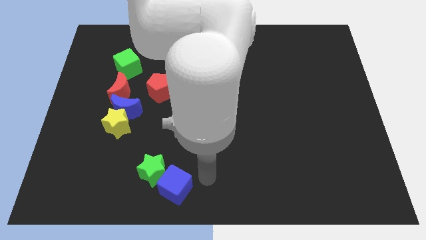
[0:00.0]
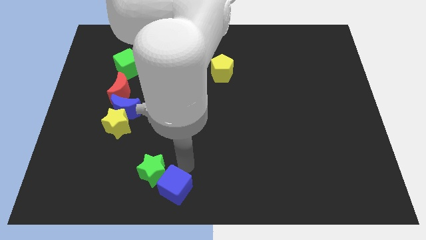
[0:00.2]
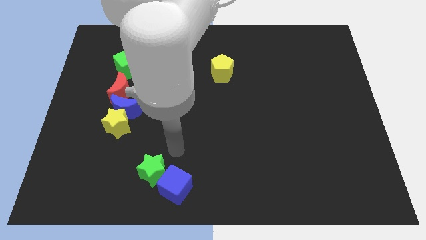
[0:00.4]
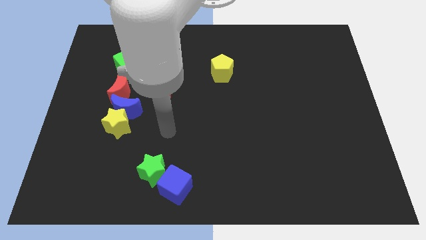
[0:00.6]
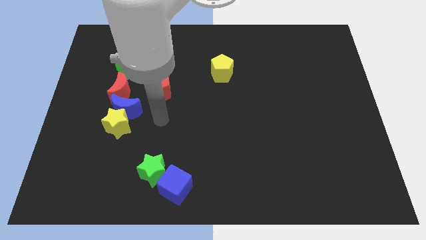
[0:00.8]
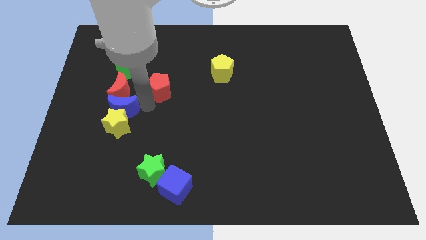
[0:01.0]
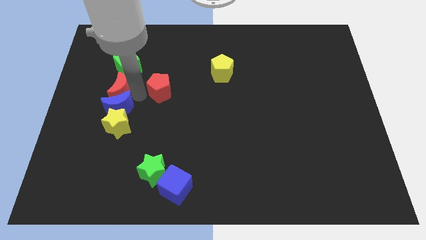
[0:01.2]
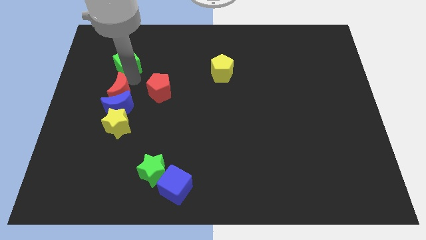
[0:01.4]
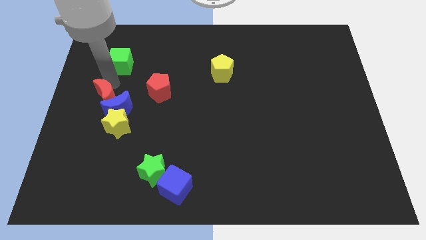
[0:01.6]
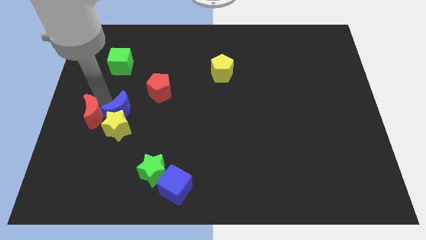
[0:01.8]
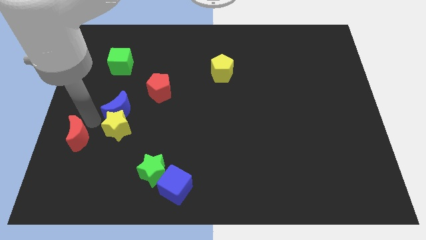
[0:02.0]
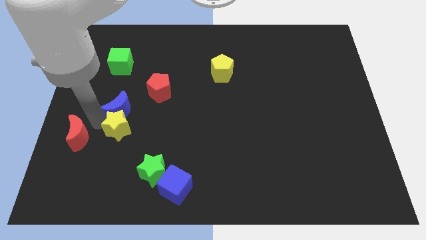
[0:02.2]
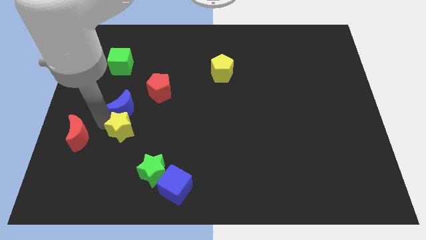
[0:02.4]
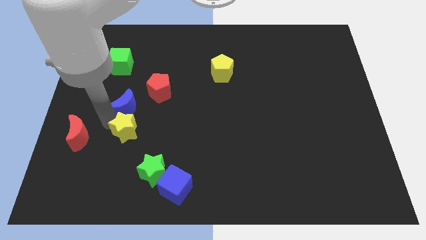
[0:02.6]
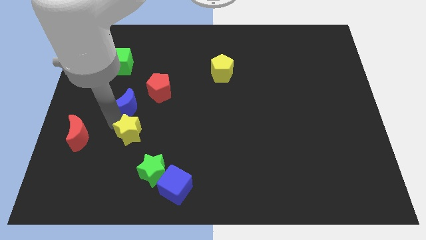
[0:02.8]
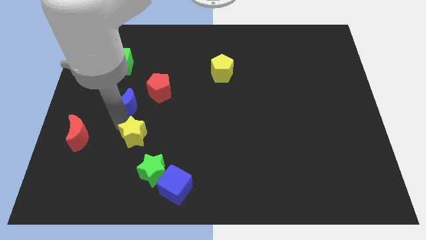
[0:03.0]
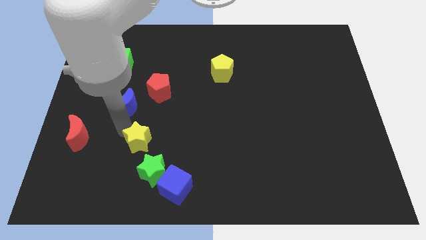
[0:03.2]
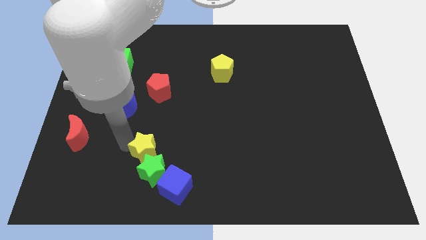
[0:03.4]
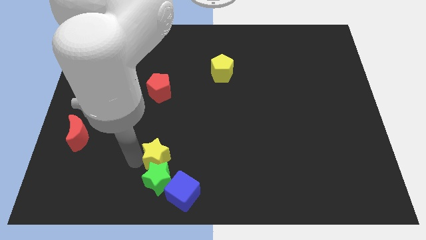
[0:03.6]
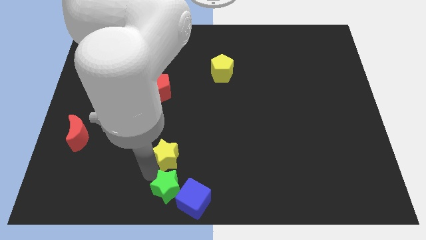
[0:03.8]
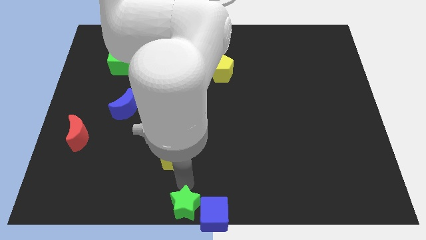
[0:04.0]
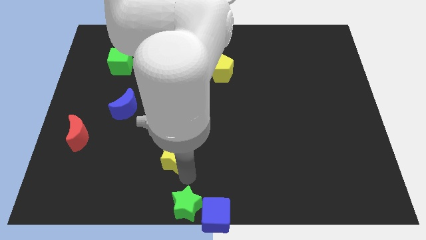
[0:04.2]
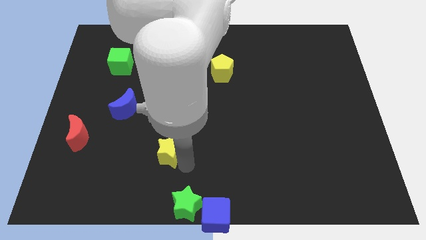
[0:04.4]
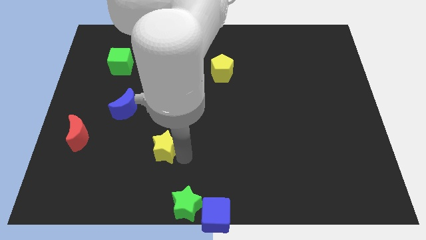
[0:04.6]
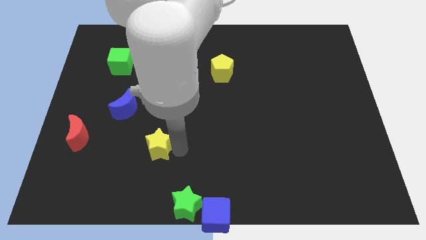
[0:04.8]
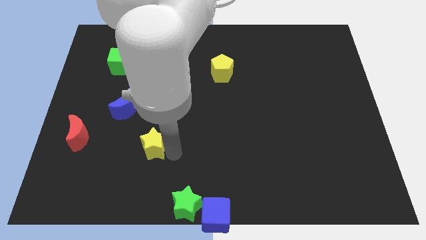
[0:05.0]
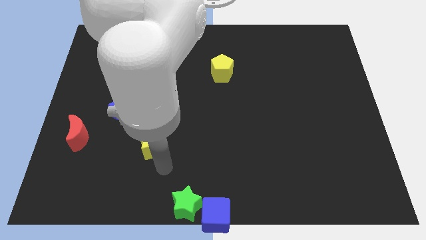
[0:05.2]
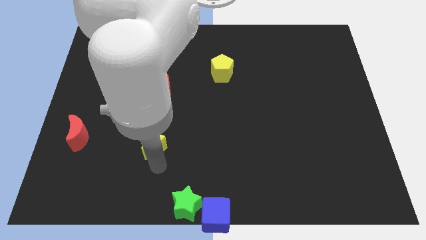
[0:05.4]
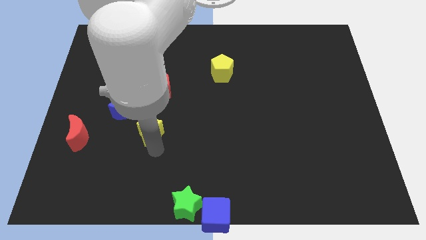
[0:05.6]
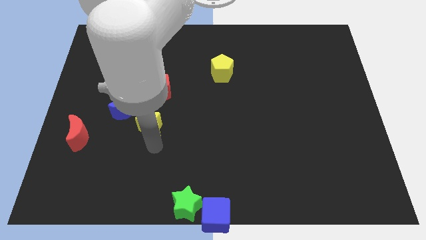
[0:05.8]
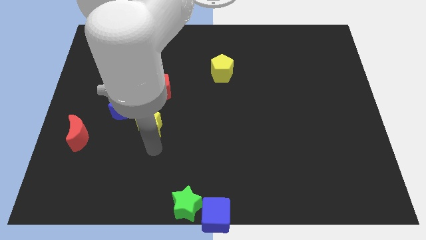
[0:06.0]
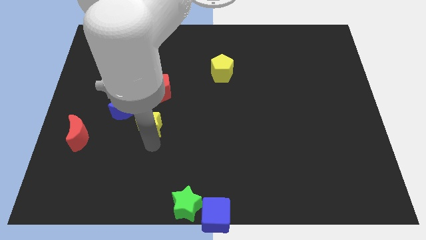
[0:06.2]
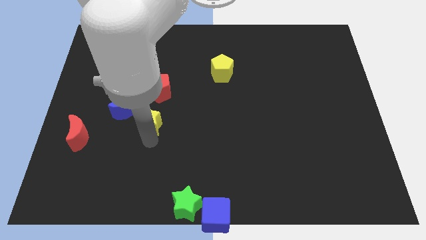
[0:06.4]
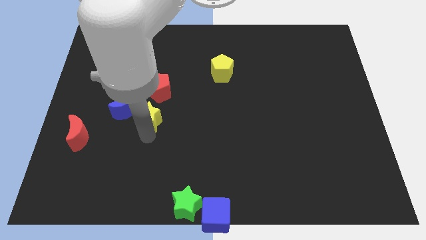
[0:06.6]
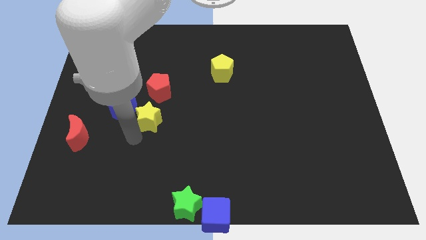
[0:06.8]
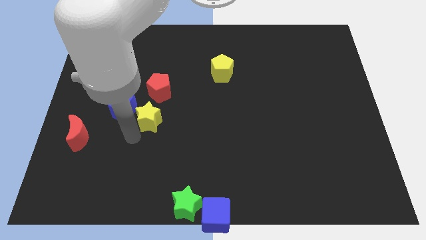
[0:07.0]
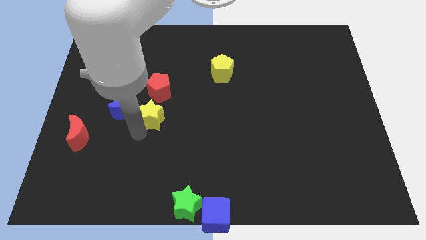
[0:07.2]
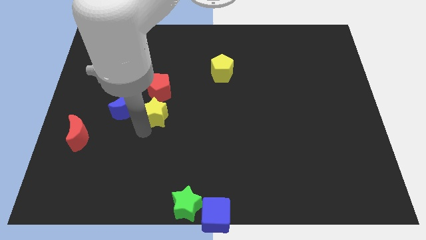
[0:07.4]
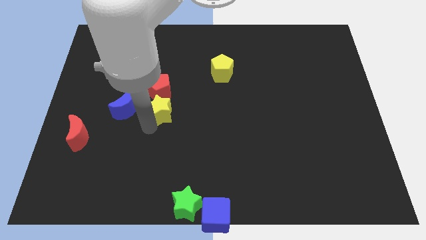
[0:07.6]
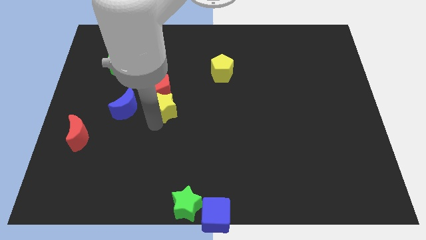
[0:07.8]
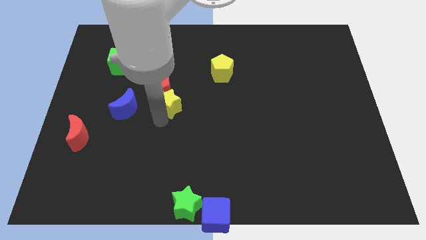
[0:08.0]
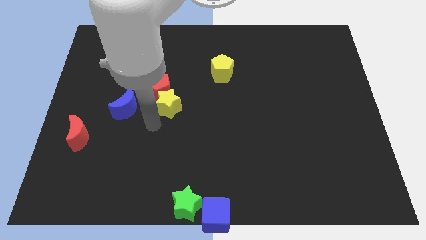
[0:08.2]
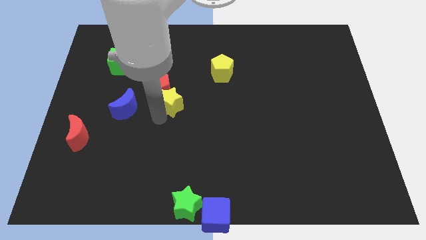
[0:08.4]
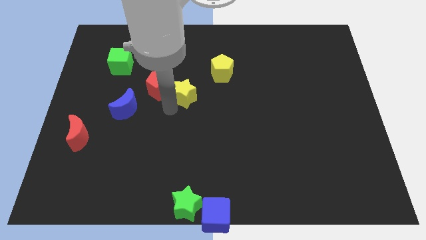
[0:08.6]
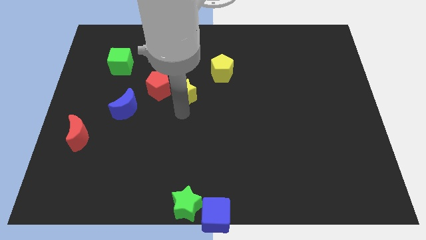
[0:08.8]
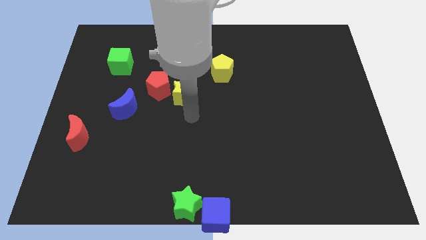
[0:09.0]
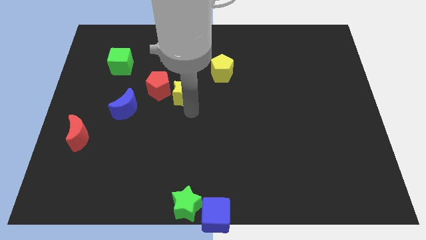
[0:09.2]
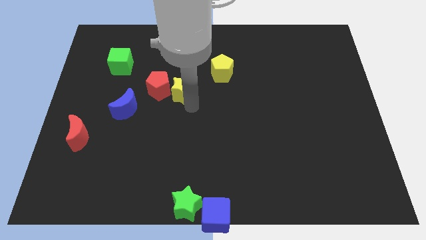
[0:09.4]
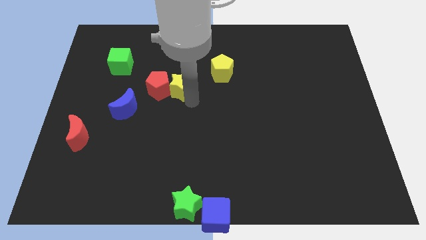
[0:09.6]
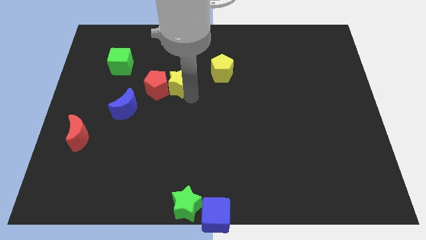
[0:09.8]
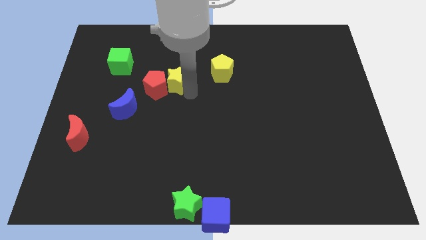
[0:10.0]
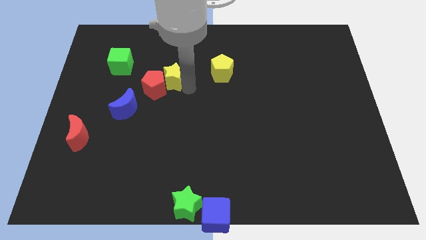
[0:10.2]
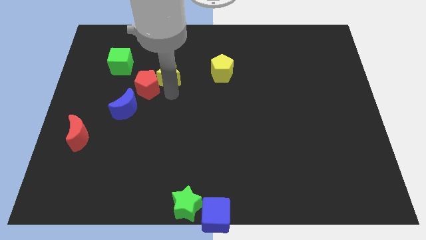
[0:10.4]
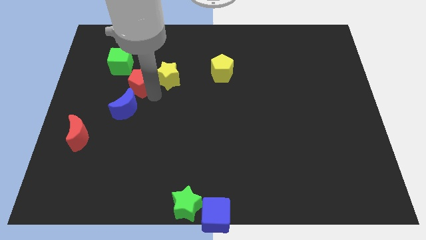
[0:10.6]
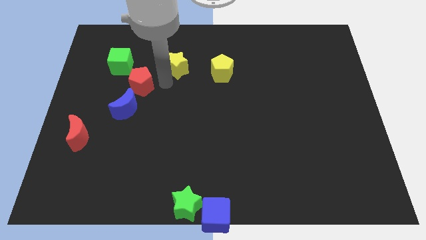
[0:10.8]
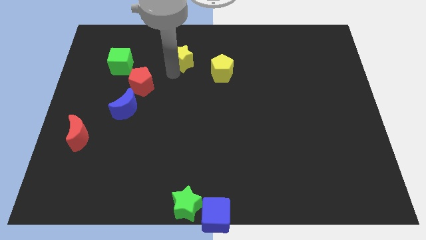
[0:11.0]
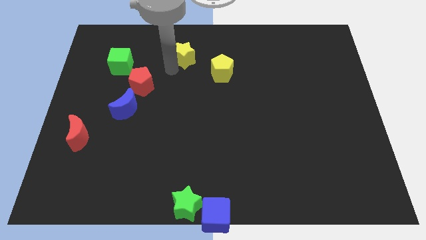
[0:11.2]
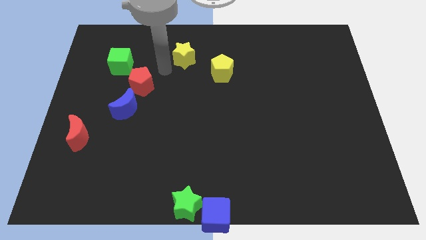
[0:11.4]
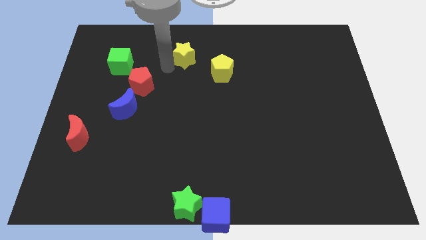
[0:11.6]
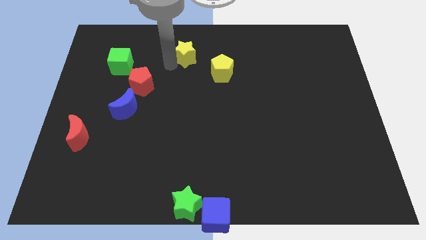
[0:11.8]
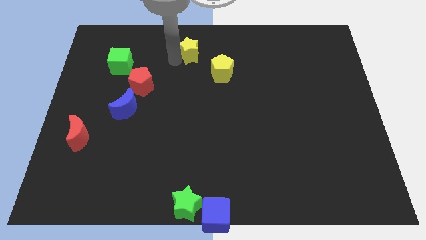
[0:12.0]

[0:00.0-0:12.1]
push the yellow star to the top
